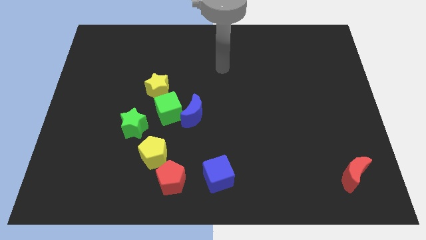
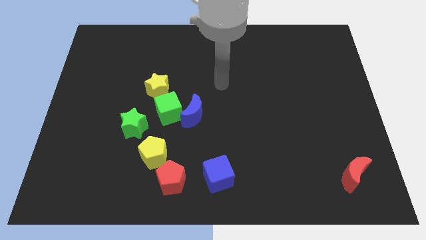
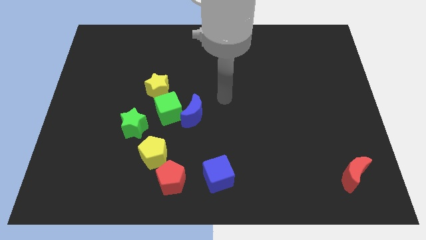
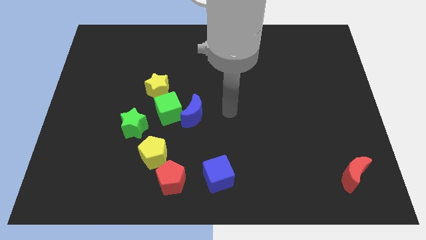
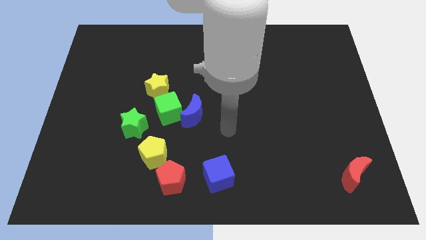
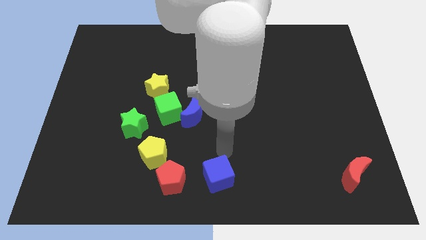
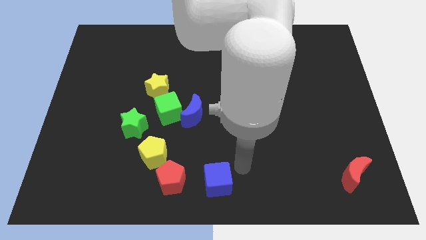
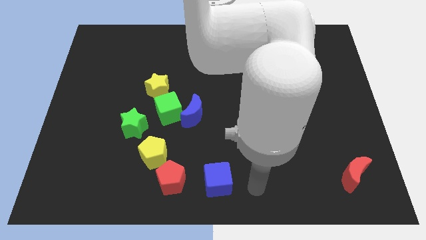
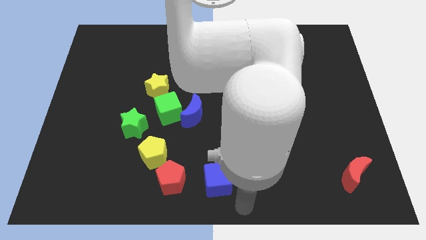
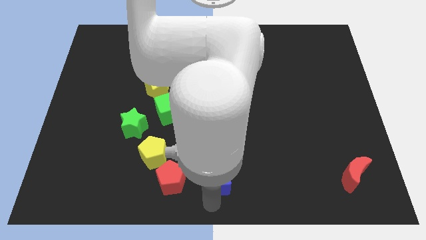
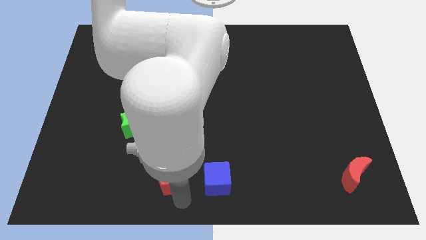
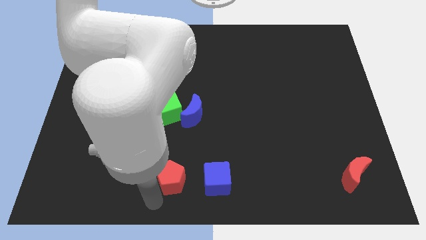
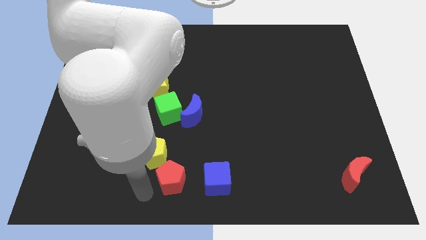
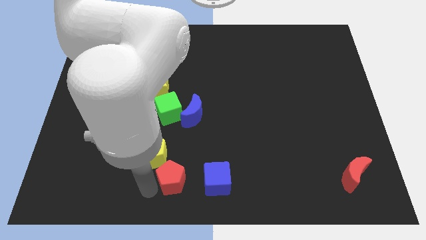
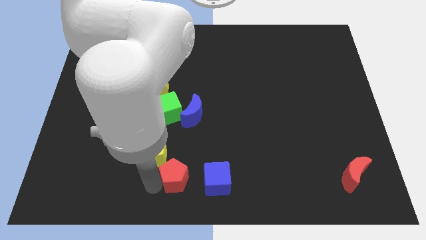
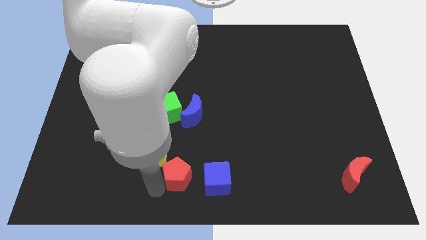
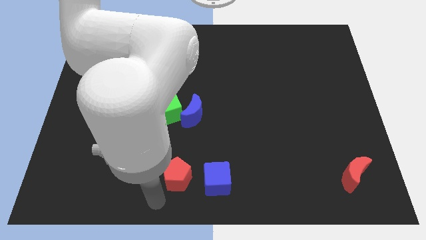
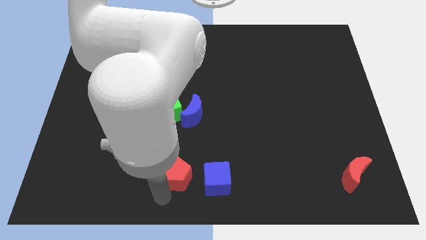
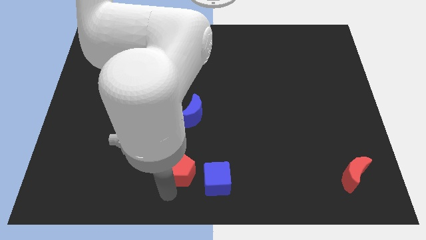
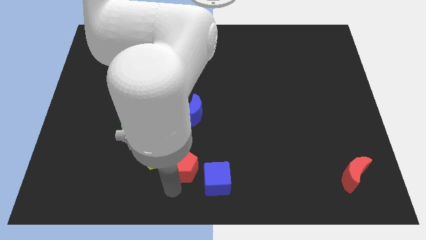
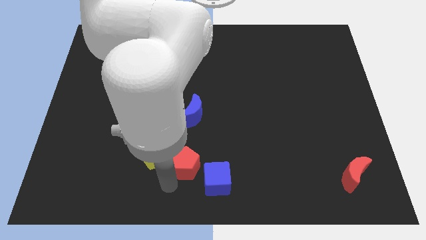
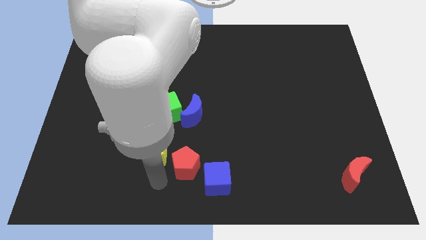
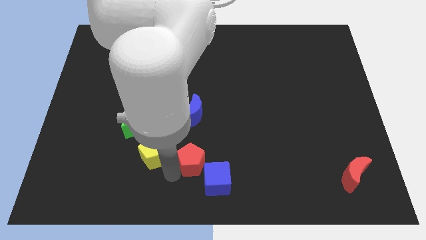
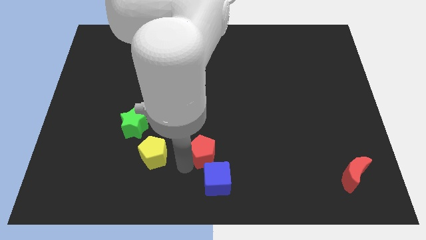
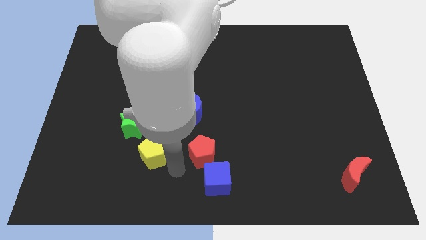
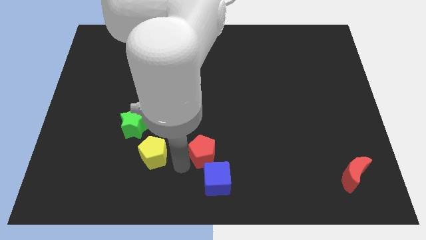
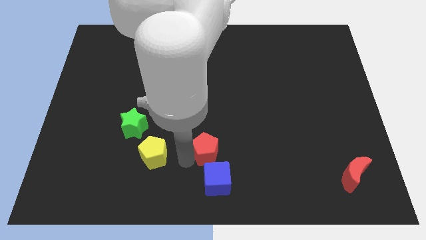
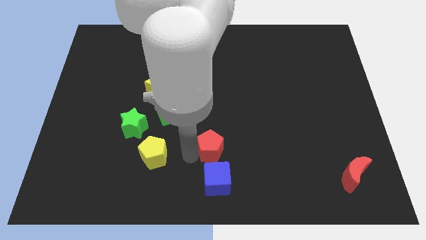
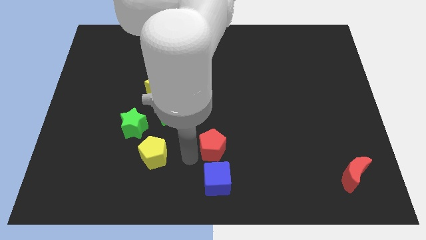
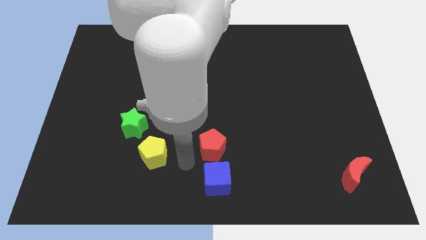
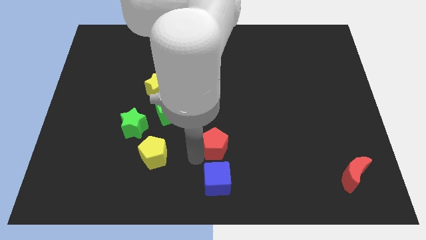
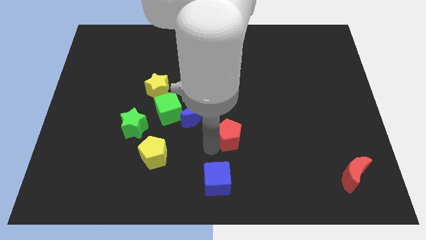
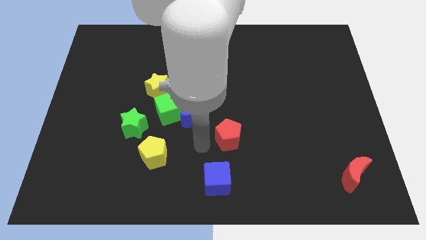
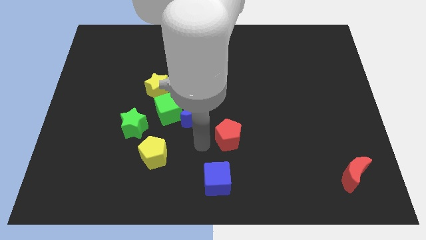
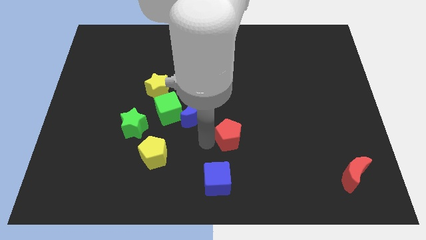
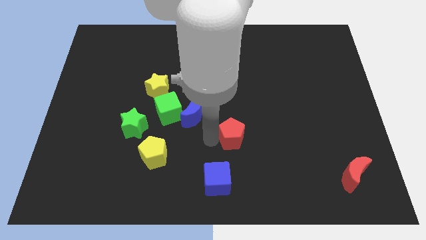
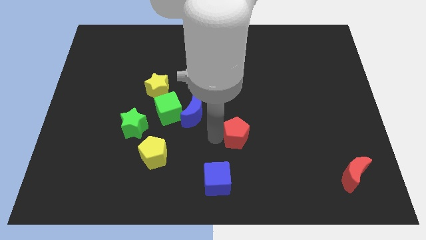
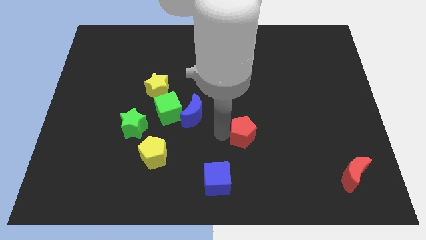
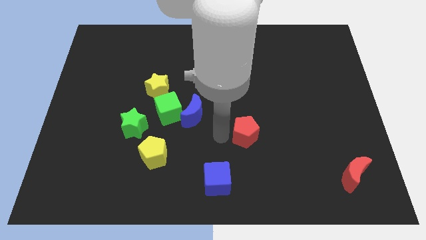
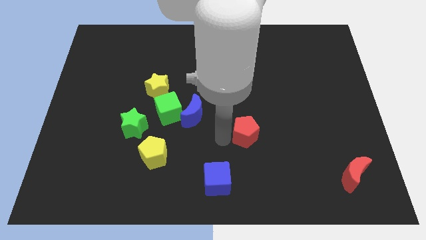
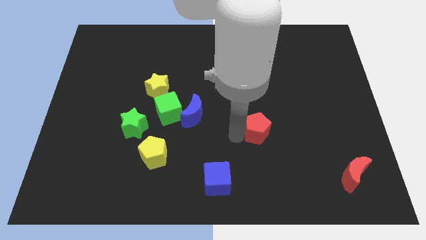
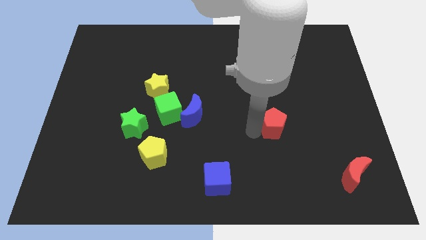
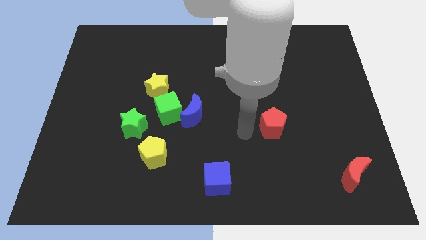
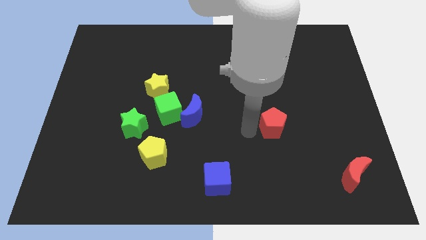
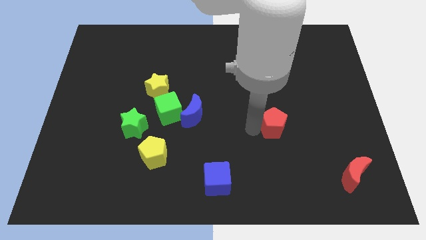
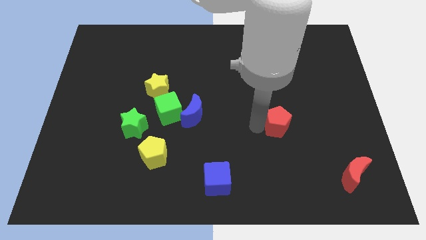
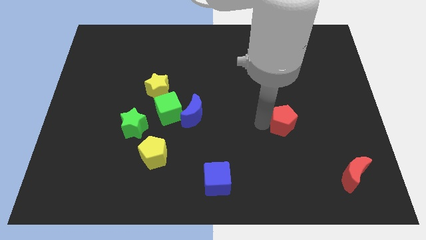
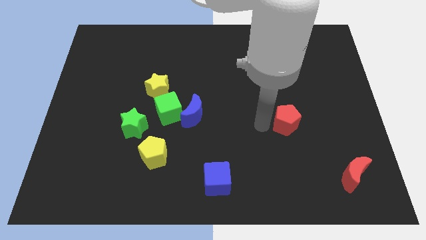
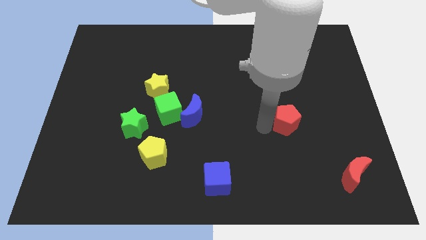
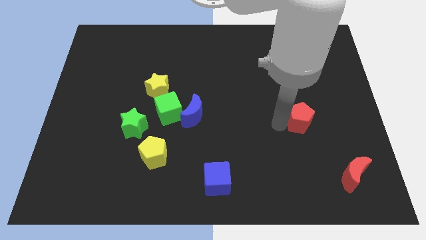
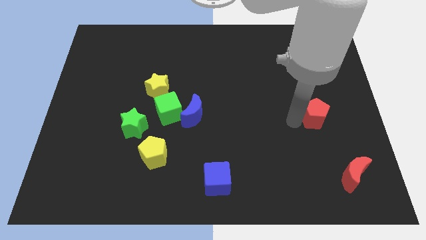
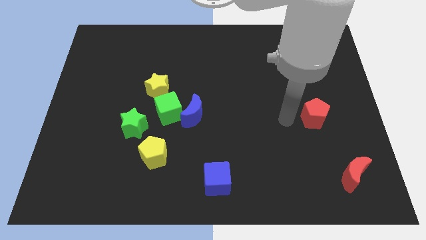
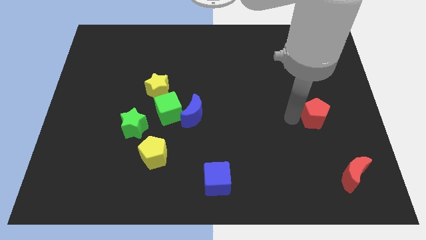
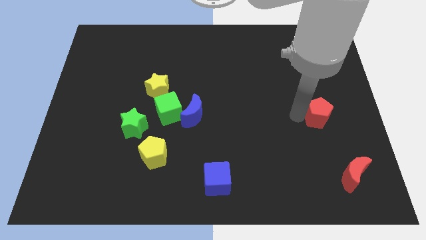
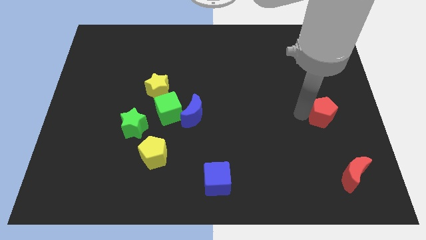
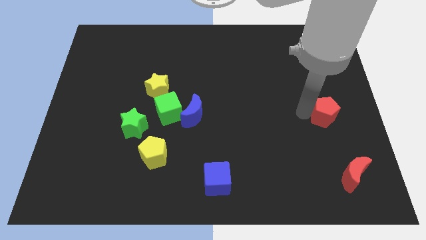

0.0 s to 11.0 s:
put the red pentagon to the right side
